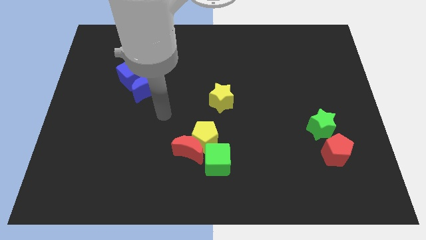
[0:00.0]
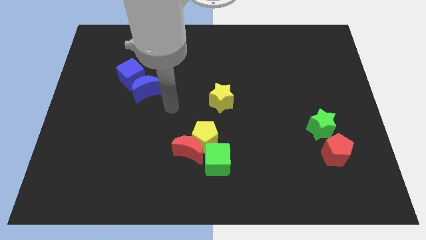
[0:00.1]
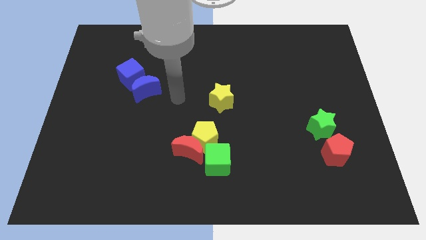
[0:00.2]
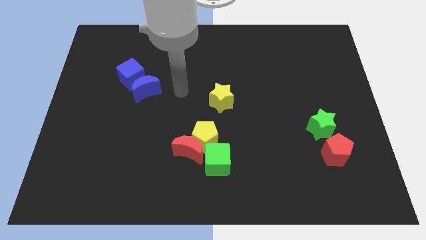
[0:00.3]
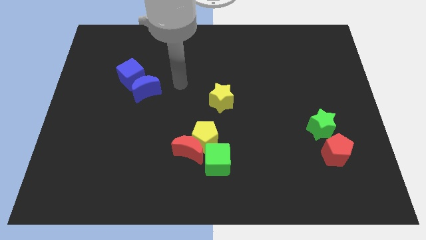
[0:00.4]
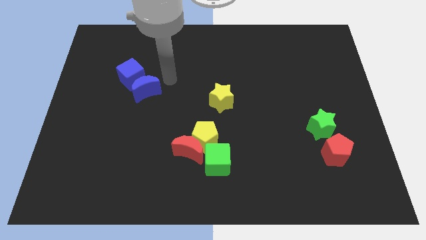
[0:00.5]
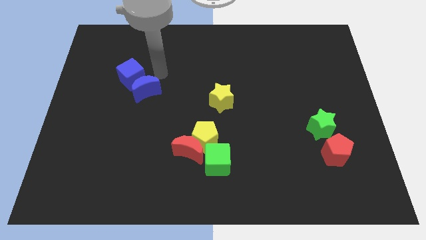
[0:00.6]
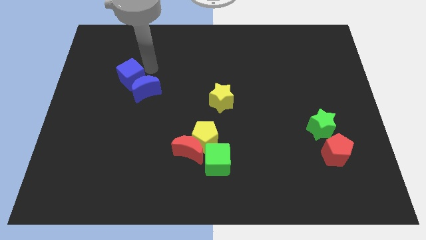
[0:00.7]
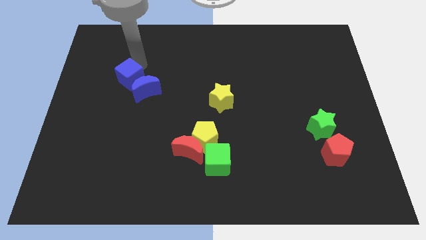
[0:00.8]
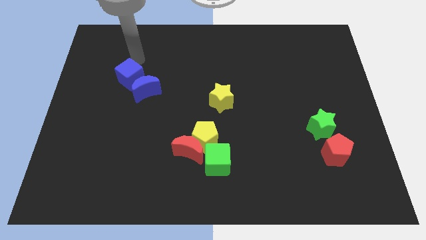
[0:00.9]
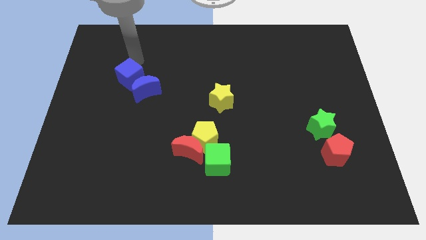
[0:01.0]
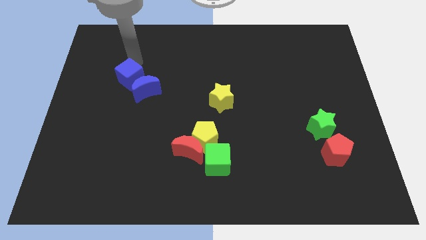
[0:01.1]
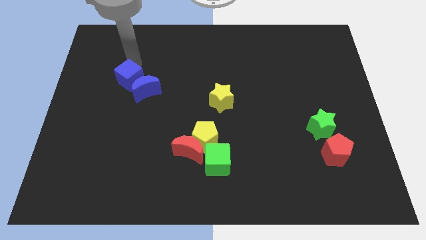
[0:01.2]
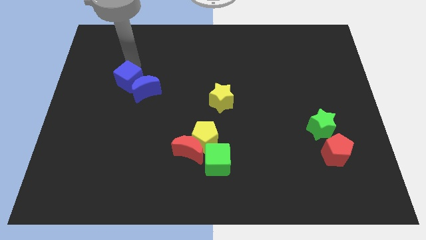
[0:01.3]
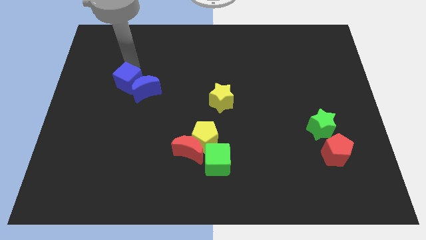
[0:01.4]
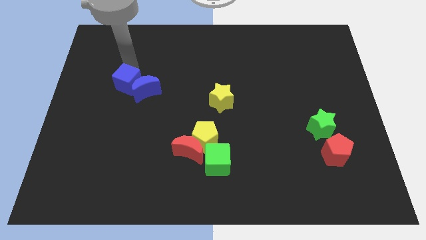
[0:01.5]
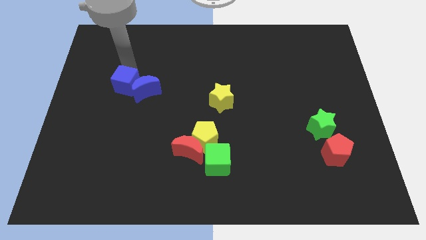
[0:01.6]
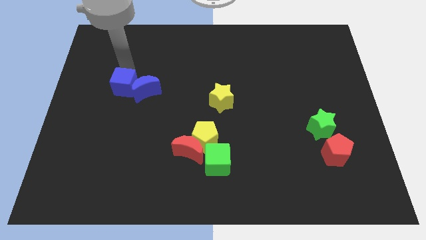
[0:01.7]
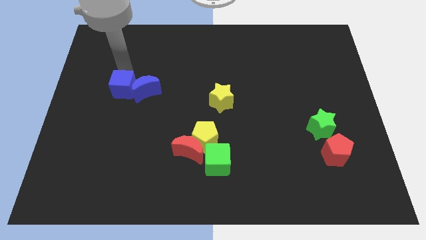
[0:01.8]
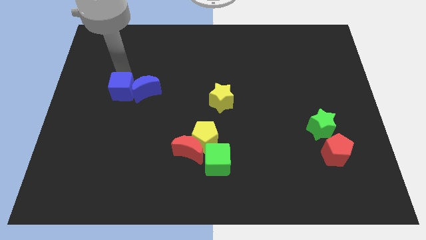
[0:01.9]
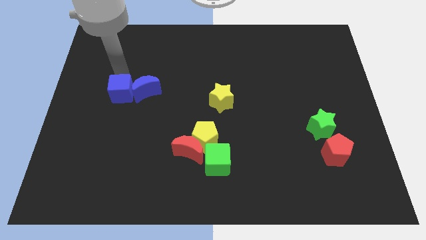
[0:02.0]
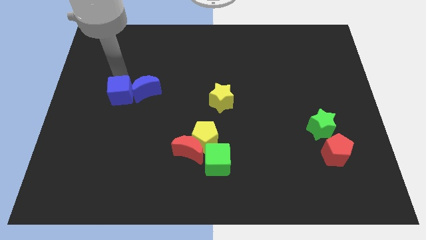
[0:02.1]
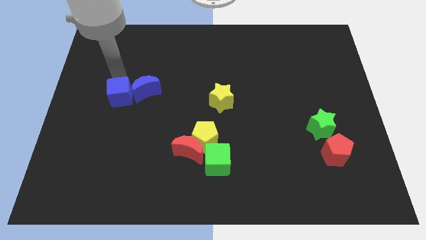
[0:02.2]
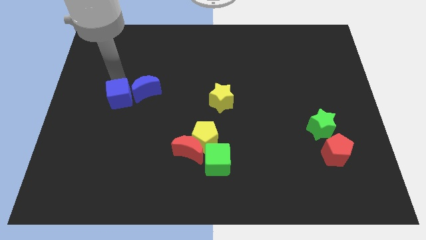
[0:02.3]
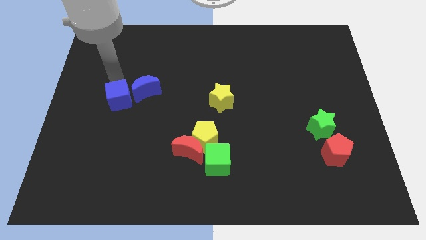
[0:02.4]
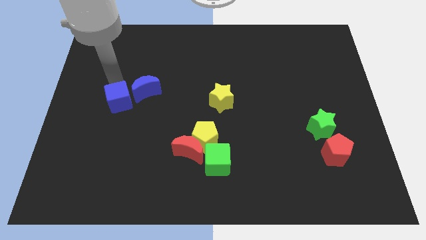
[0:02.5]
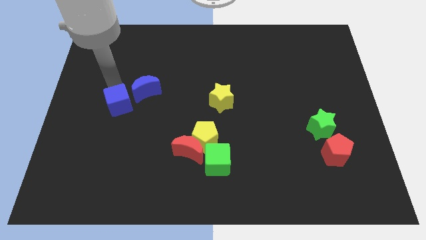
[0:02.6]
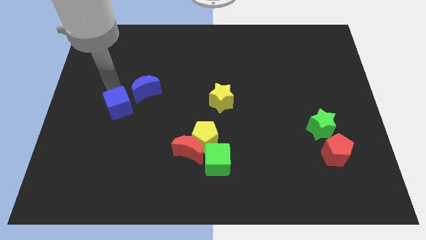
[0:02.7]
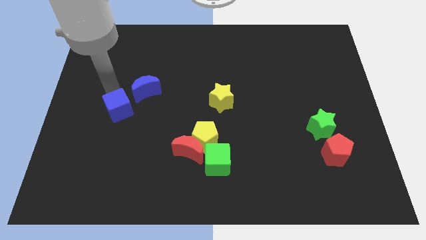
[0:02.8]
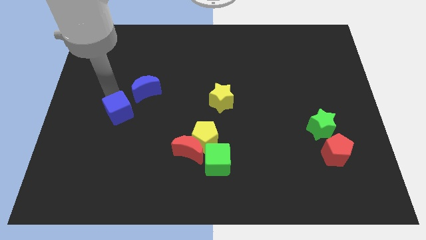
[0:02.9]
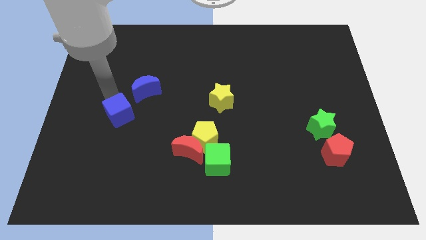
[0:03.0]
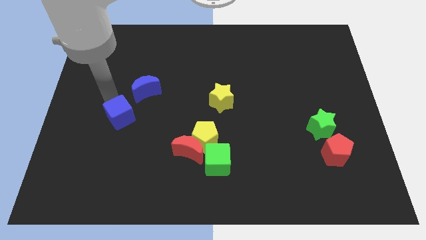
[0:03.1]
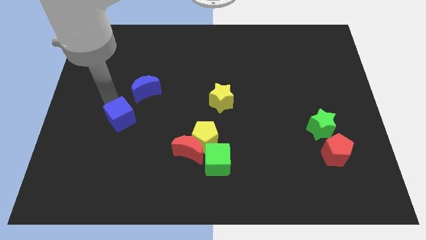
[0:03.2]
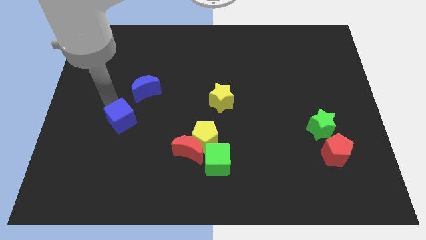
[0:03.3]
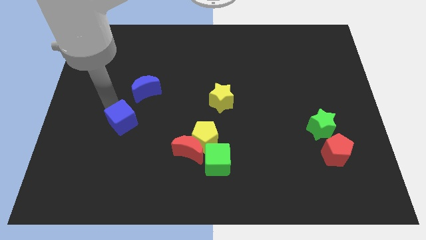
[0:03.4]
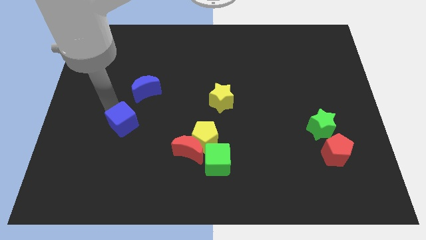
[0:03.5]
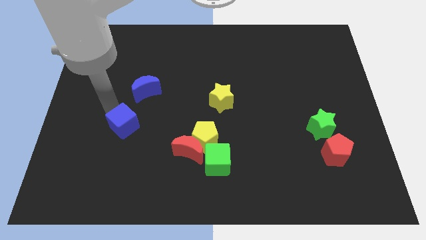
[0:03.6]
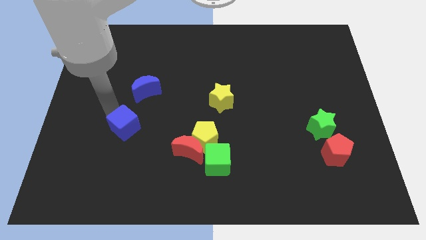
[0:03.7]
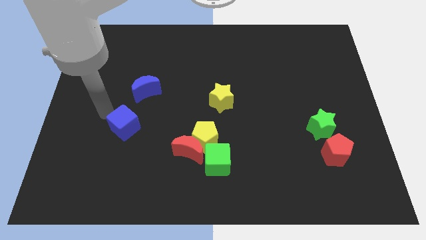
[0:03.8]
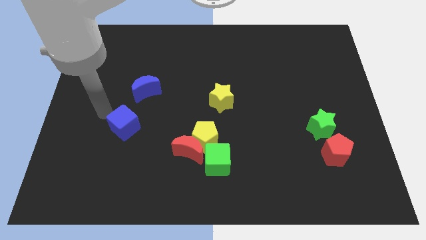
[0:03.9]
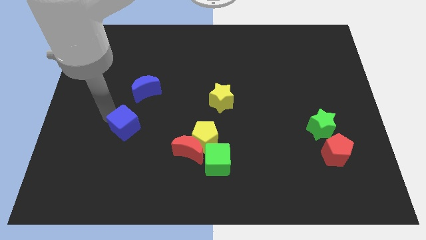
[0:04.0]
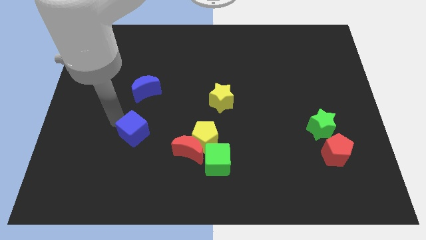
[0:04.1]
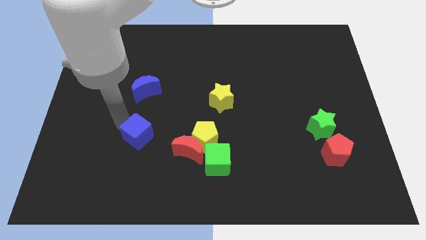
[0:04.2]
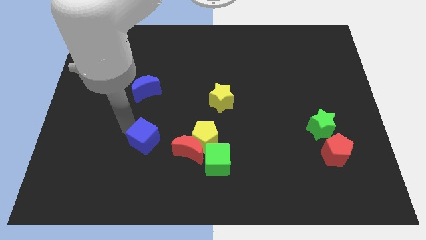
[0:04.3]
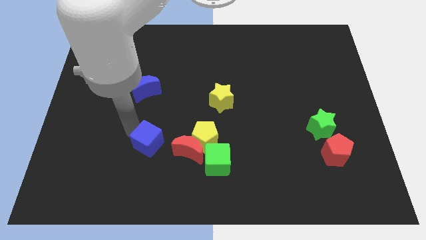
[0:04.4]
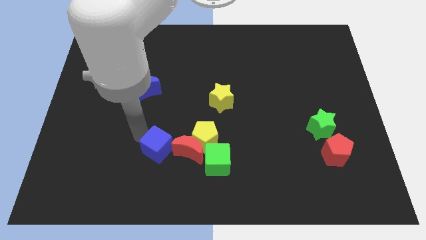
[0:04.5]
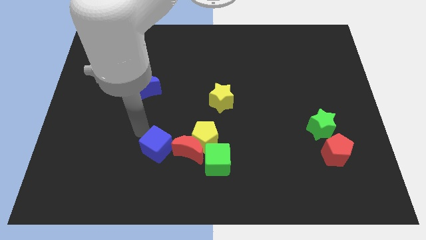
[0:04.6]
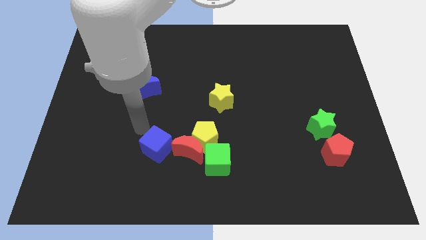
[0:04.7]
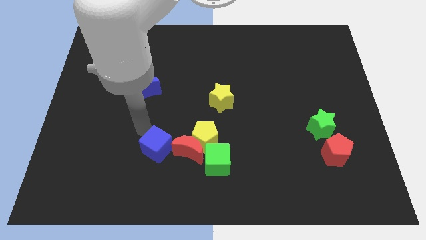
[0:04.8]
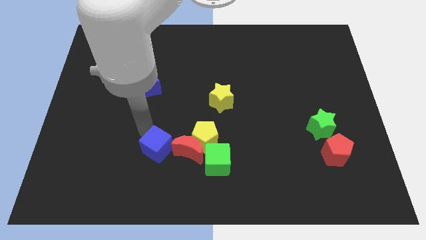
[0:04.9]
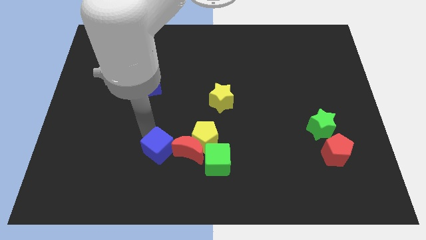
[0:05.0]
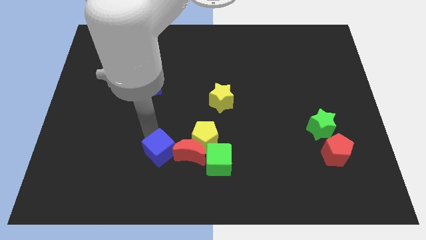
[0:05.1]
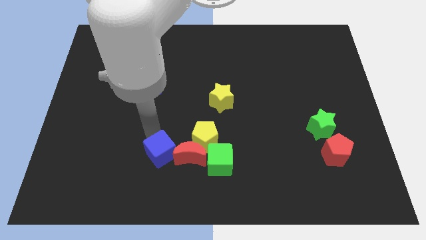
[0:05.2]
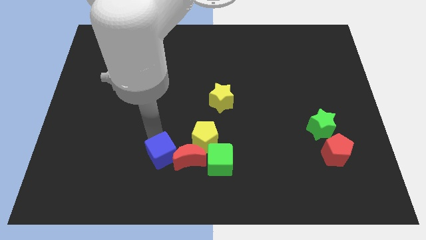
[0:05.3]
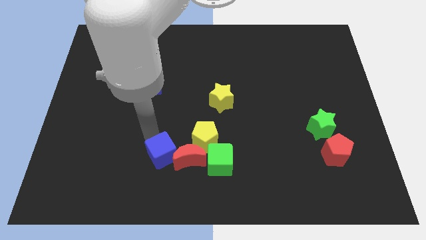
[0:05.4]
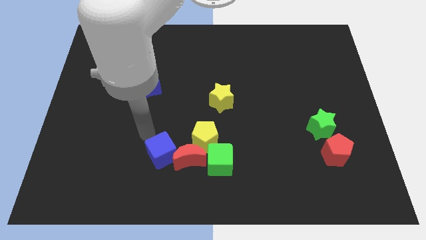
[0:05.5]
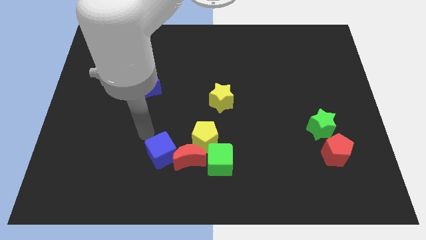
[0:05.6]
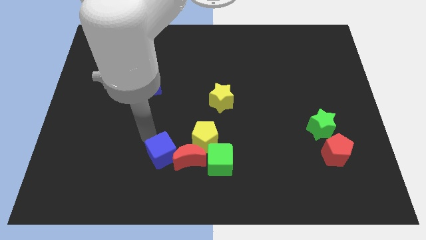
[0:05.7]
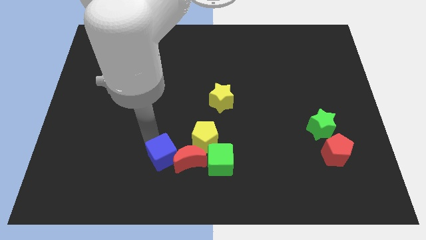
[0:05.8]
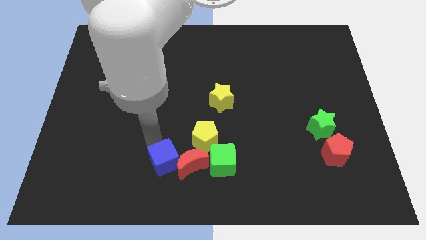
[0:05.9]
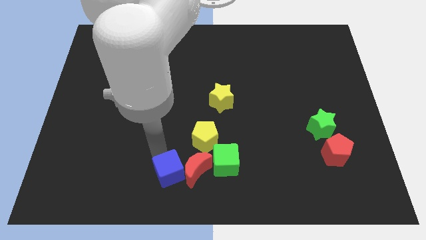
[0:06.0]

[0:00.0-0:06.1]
move the blue cube to the bottom side
